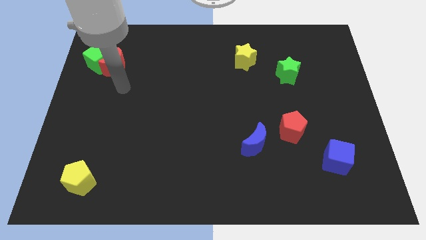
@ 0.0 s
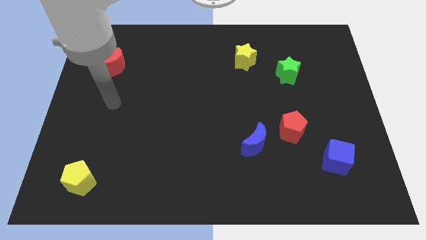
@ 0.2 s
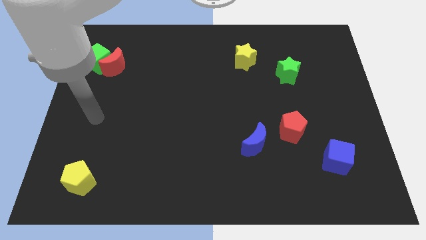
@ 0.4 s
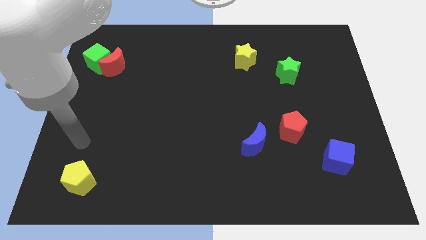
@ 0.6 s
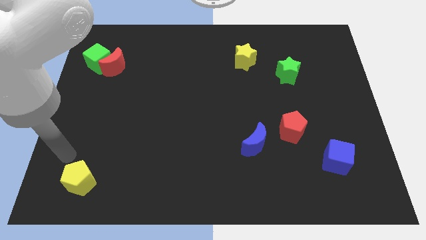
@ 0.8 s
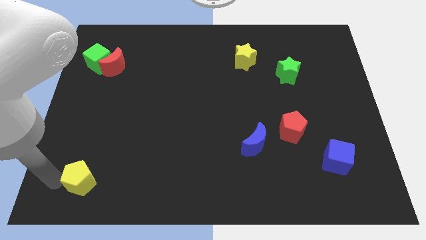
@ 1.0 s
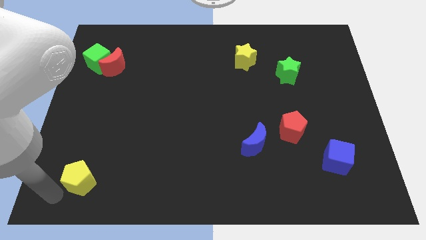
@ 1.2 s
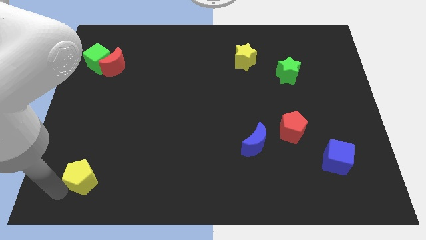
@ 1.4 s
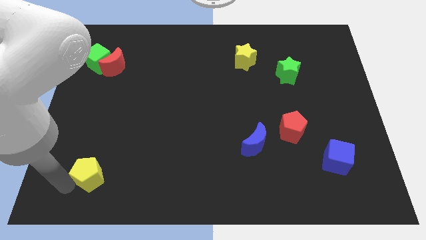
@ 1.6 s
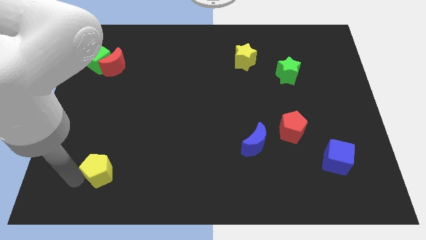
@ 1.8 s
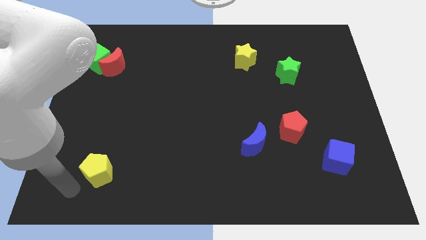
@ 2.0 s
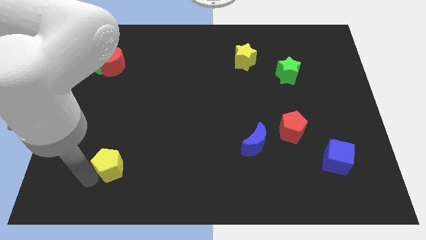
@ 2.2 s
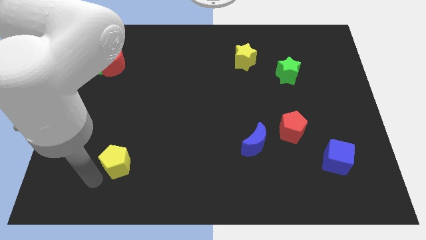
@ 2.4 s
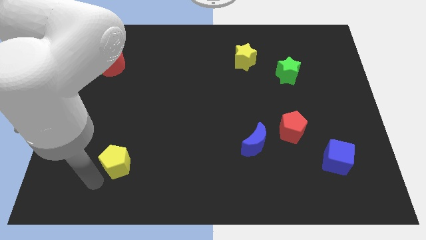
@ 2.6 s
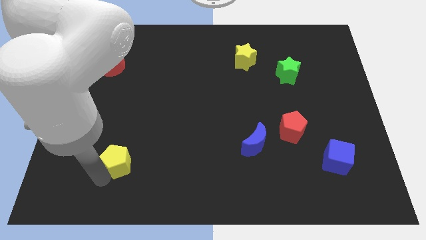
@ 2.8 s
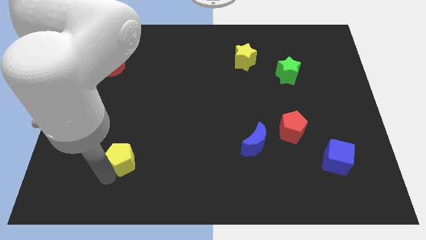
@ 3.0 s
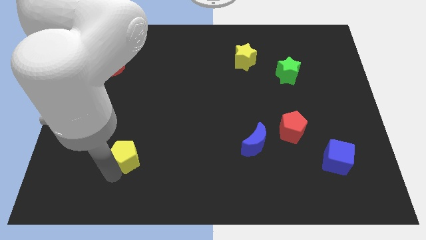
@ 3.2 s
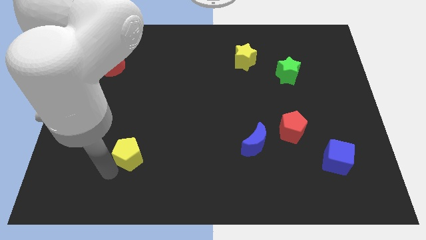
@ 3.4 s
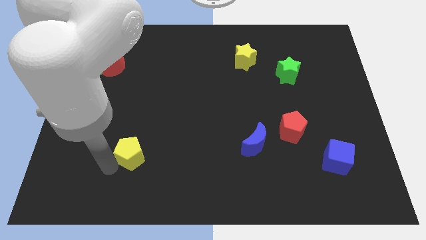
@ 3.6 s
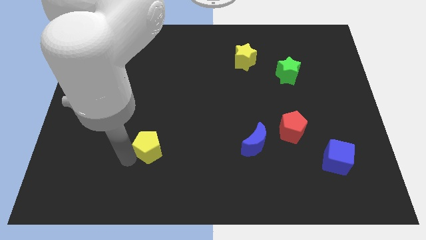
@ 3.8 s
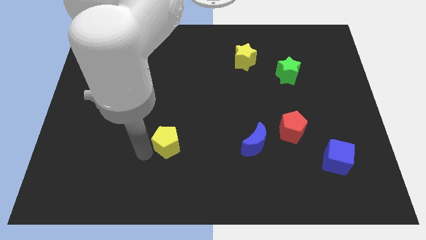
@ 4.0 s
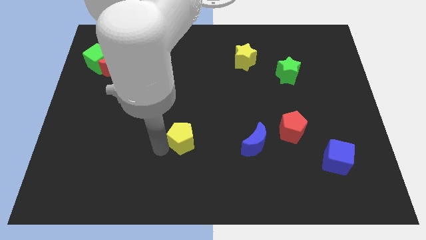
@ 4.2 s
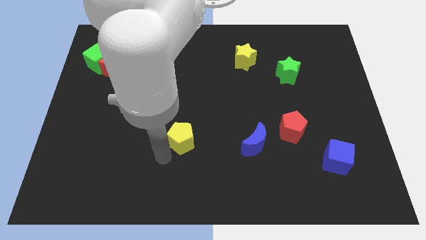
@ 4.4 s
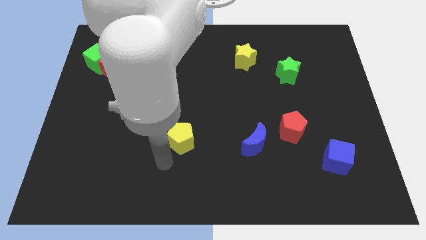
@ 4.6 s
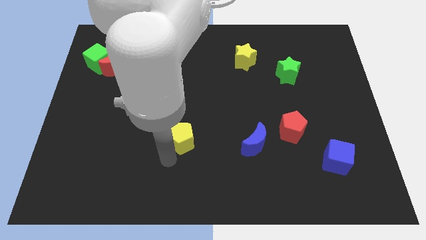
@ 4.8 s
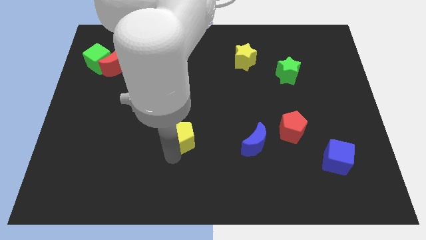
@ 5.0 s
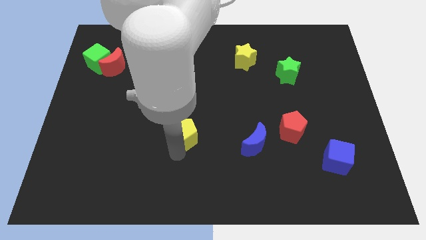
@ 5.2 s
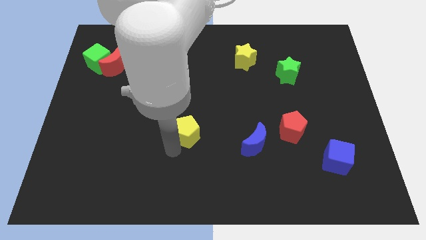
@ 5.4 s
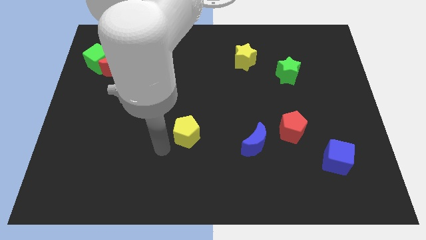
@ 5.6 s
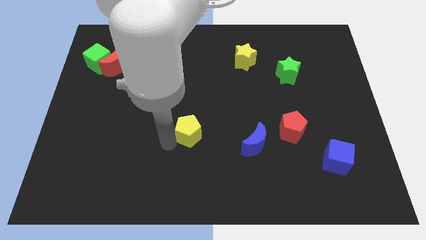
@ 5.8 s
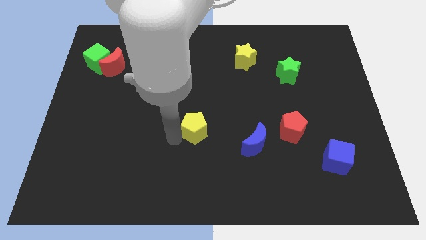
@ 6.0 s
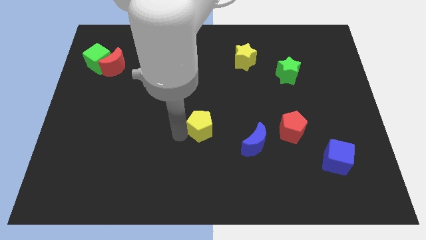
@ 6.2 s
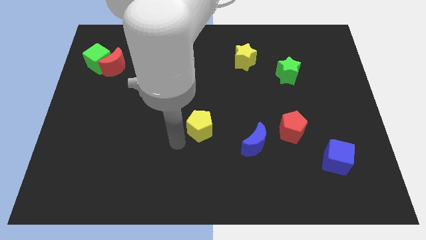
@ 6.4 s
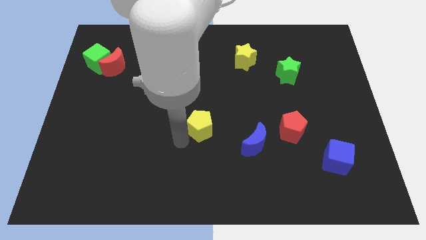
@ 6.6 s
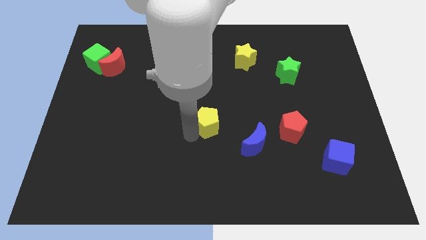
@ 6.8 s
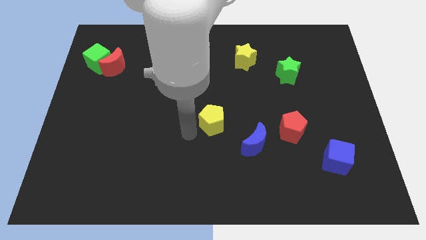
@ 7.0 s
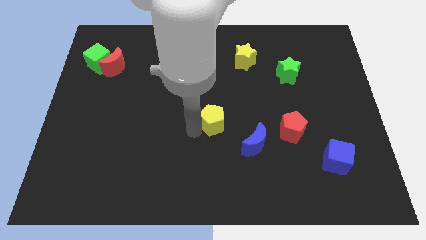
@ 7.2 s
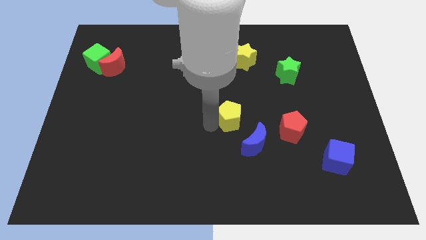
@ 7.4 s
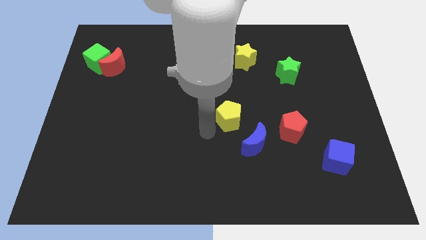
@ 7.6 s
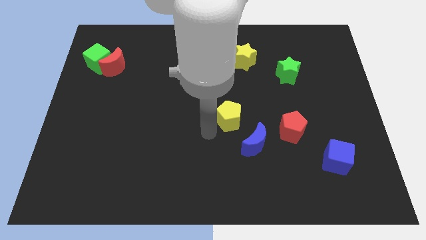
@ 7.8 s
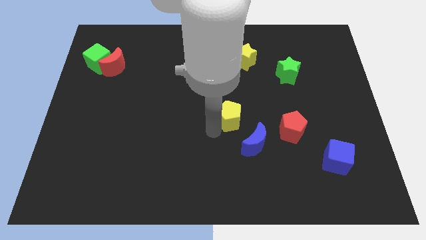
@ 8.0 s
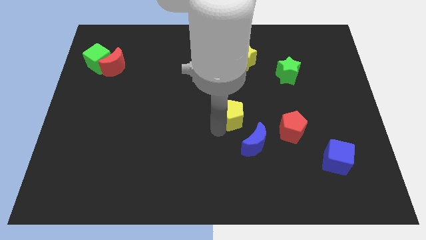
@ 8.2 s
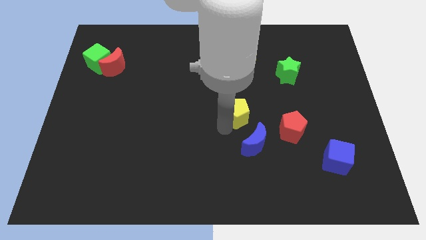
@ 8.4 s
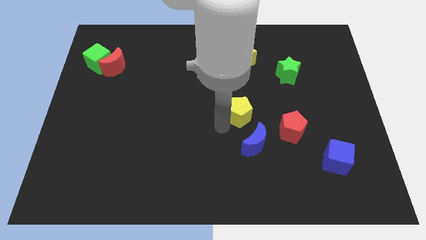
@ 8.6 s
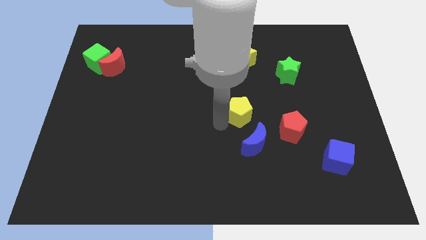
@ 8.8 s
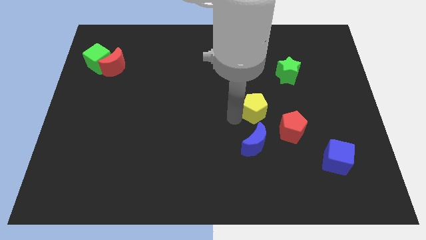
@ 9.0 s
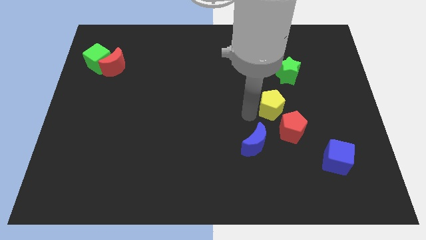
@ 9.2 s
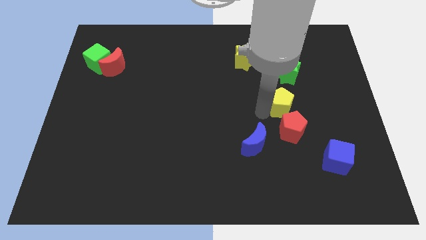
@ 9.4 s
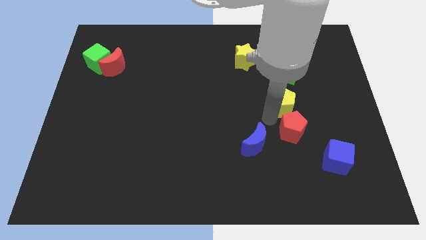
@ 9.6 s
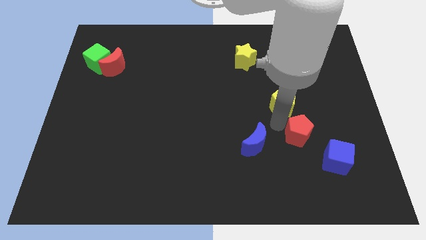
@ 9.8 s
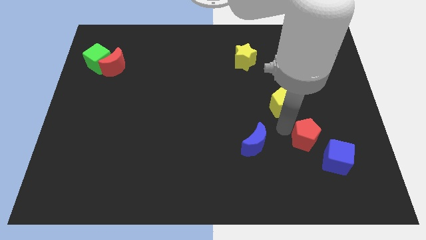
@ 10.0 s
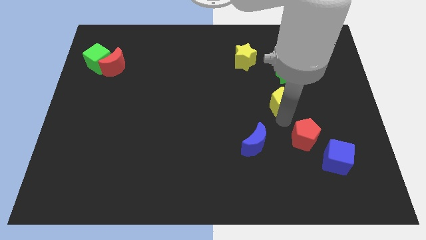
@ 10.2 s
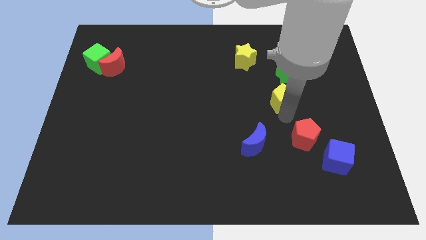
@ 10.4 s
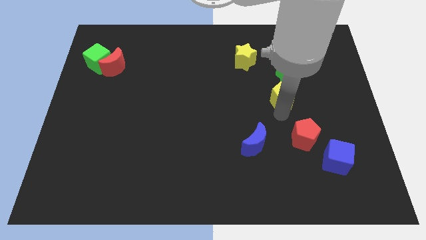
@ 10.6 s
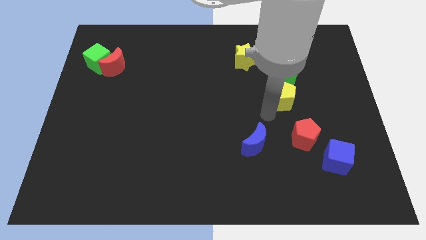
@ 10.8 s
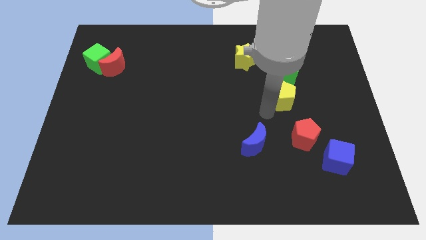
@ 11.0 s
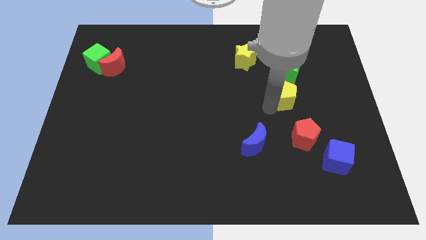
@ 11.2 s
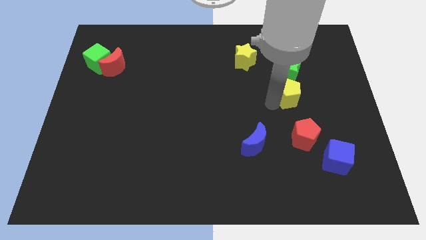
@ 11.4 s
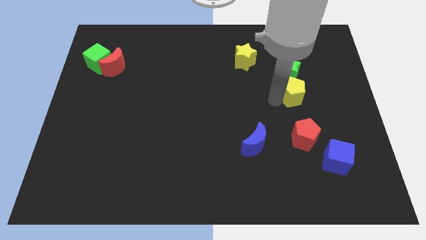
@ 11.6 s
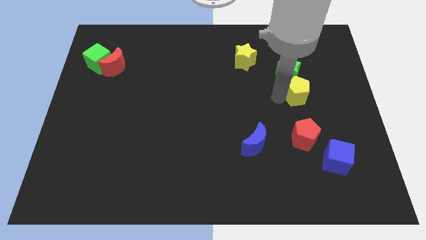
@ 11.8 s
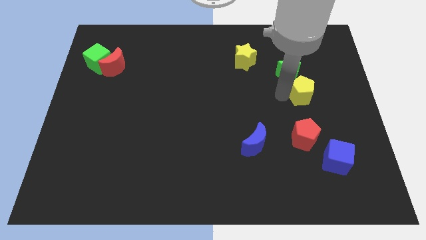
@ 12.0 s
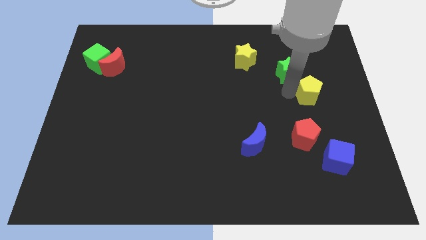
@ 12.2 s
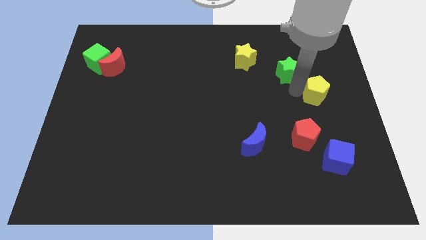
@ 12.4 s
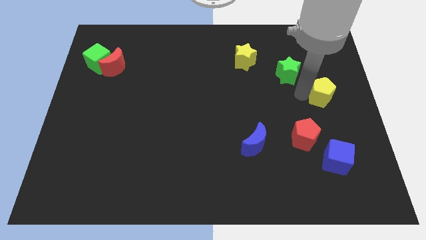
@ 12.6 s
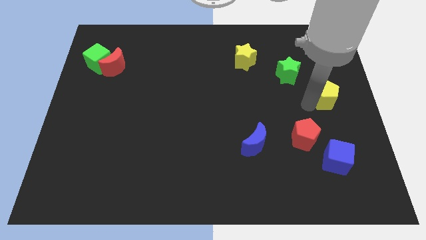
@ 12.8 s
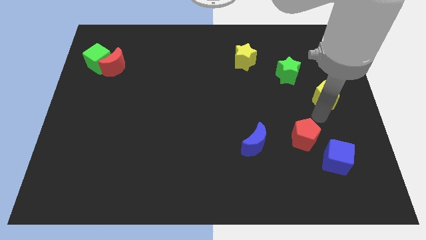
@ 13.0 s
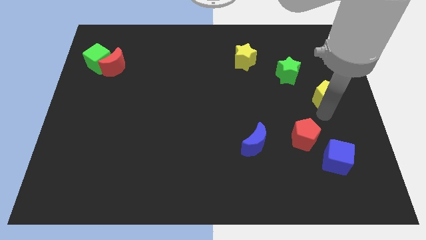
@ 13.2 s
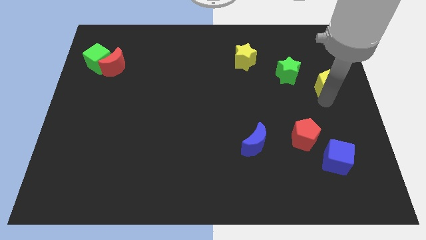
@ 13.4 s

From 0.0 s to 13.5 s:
slide the yellow pentagon to the right of the green star

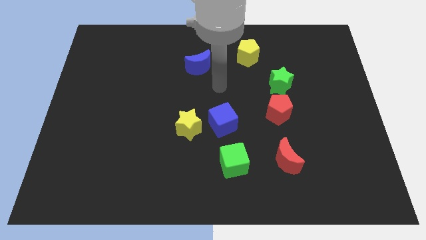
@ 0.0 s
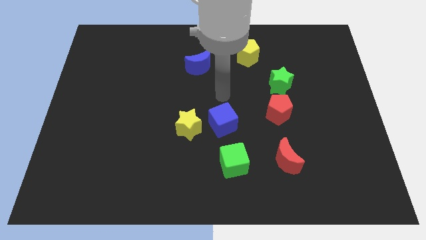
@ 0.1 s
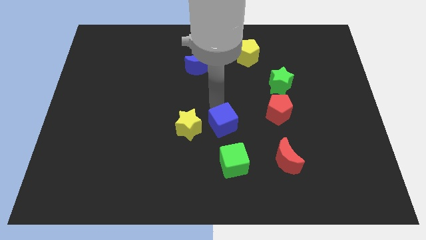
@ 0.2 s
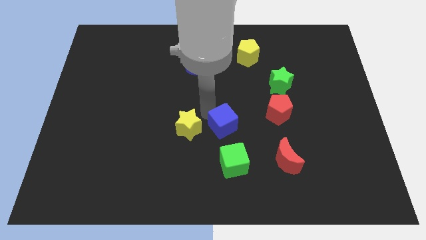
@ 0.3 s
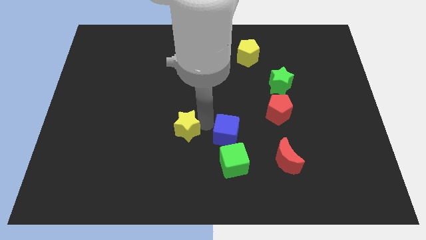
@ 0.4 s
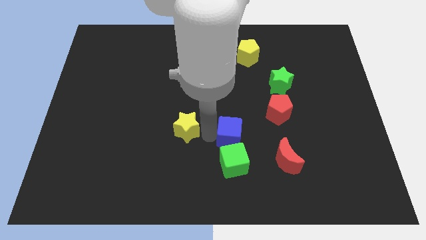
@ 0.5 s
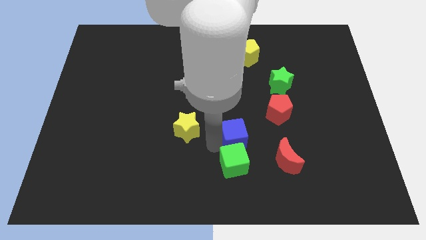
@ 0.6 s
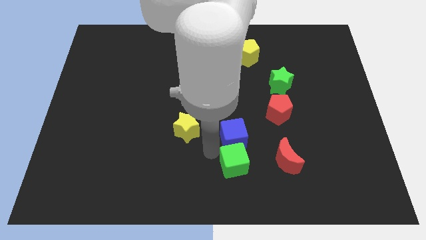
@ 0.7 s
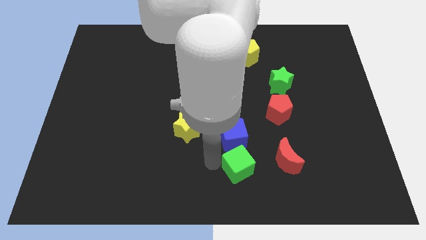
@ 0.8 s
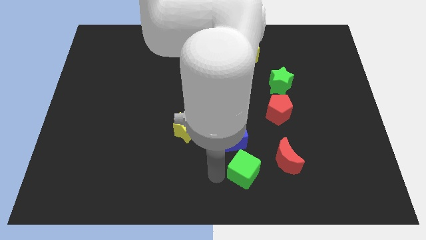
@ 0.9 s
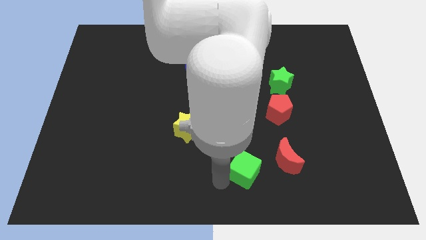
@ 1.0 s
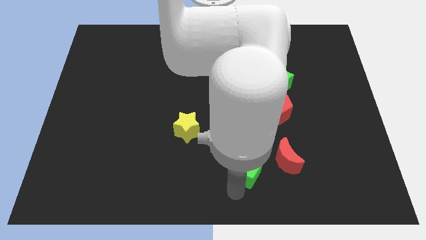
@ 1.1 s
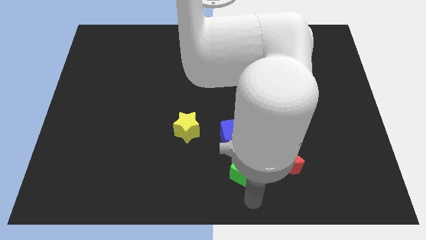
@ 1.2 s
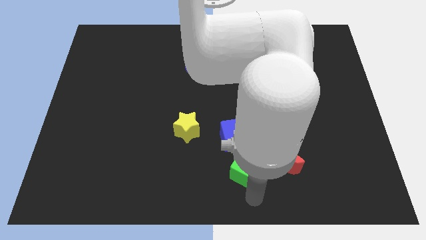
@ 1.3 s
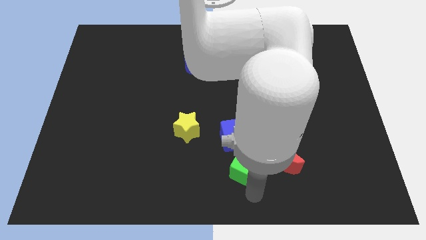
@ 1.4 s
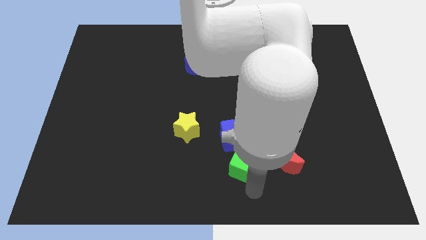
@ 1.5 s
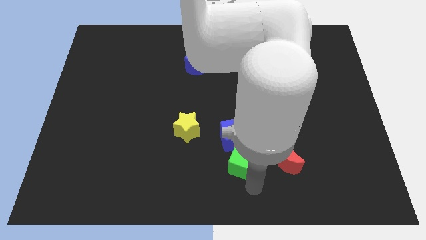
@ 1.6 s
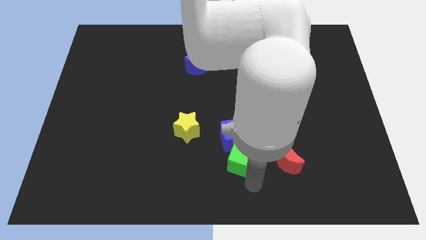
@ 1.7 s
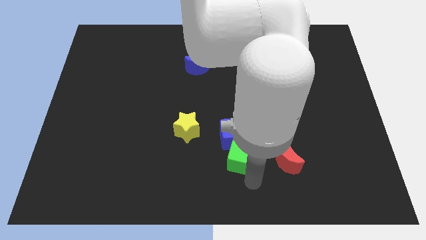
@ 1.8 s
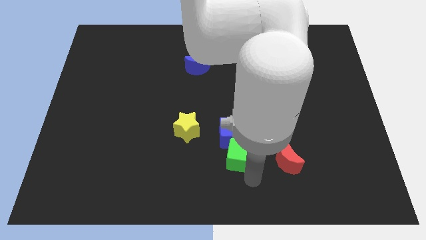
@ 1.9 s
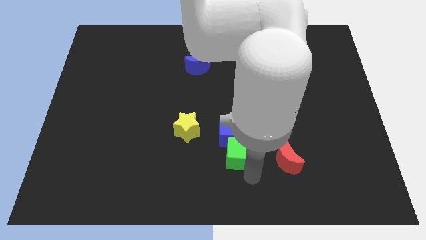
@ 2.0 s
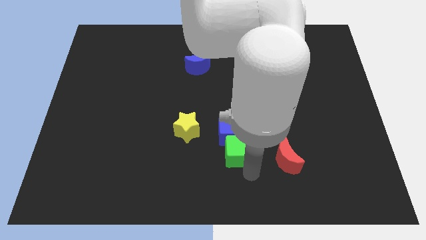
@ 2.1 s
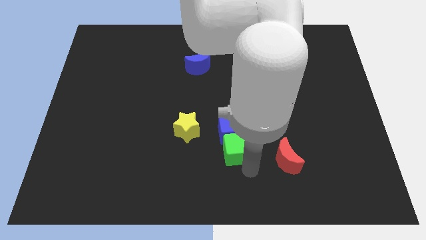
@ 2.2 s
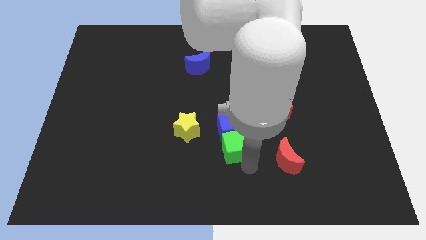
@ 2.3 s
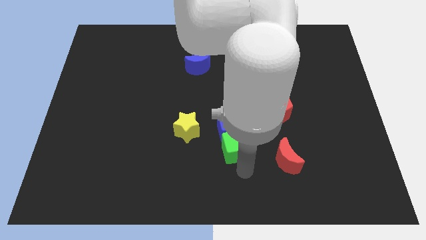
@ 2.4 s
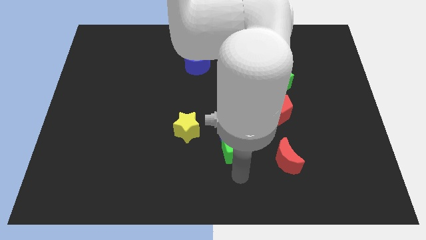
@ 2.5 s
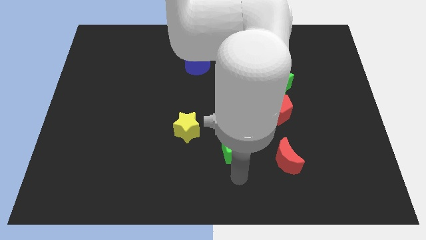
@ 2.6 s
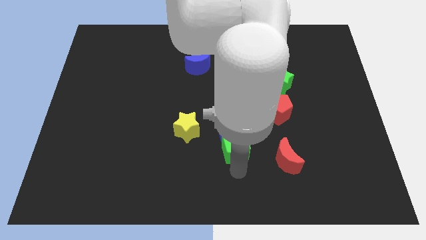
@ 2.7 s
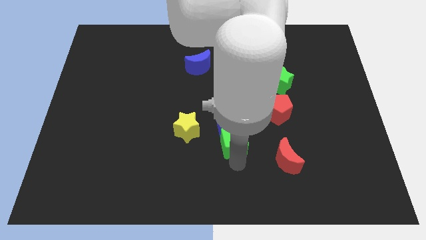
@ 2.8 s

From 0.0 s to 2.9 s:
push the green cube right of the yellow star
